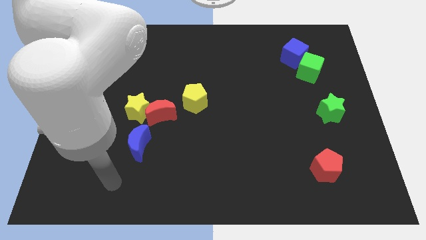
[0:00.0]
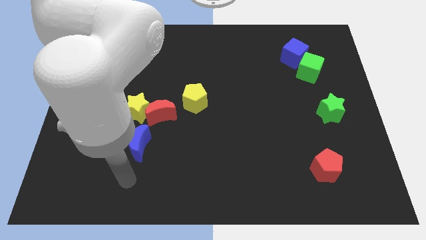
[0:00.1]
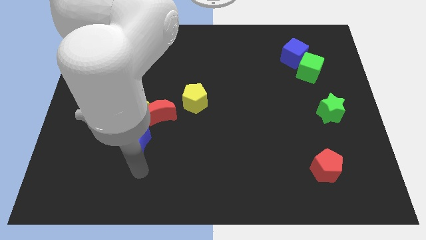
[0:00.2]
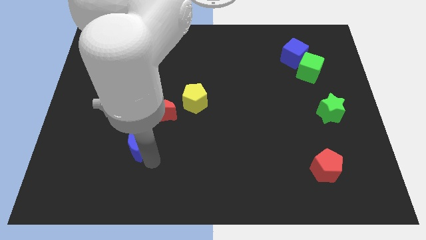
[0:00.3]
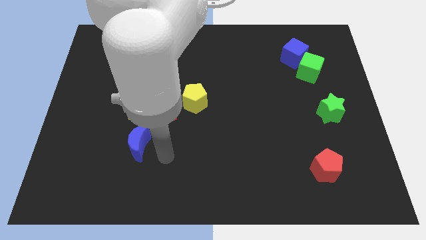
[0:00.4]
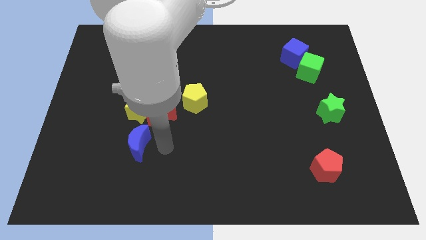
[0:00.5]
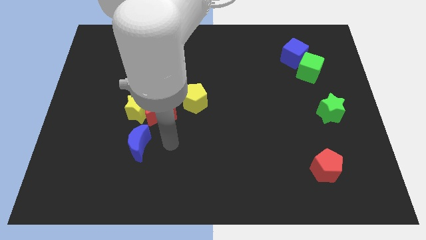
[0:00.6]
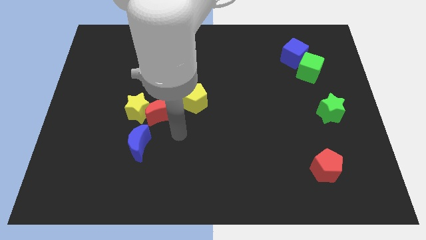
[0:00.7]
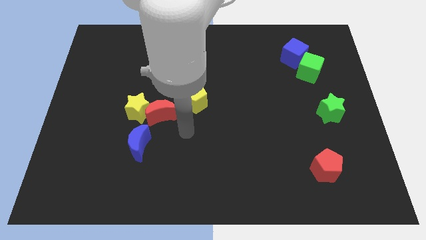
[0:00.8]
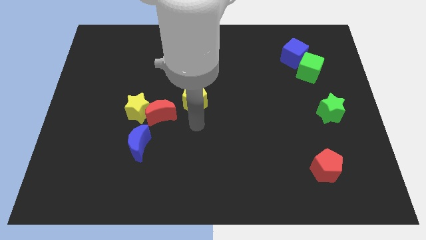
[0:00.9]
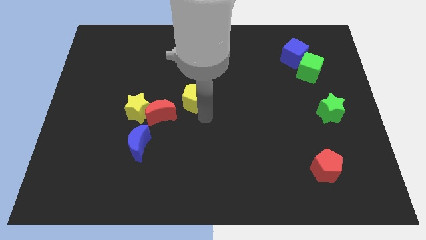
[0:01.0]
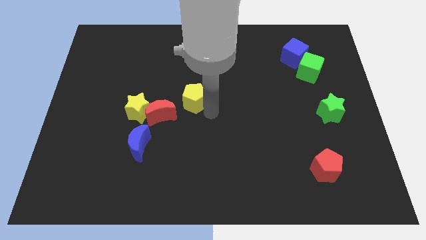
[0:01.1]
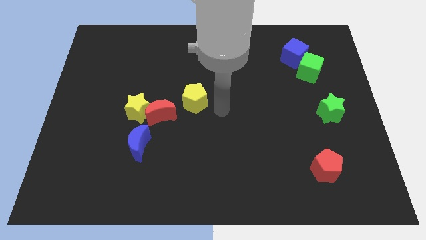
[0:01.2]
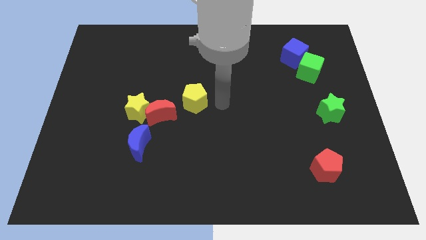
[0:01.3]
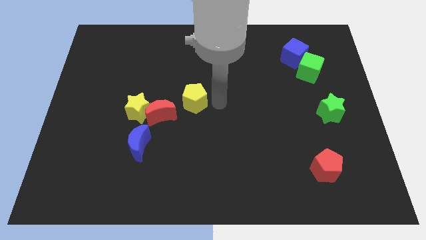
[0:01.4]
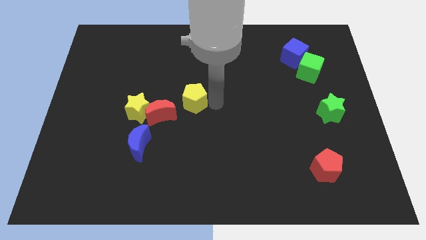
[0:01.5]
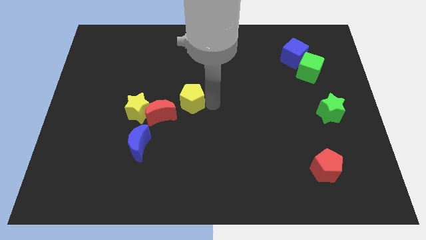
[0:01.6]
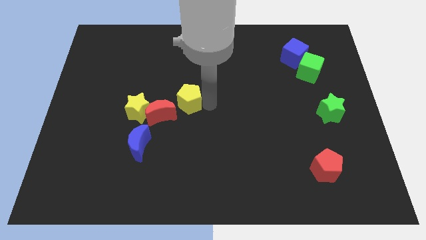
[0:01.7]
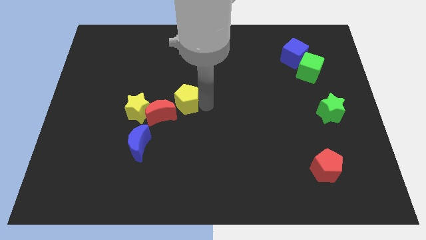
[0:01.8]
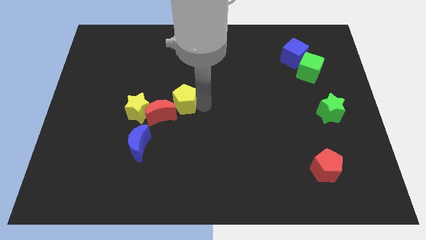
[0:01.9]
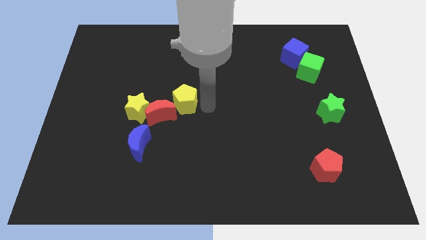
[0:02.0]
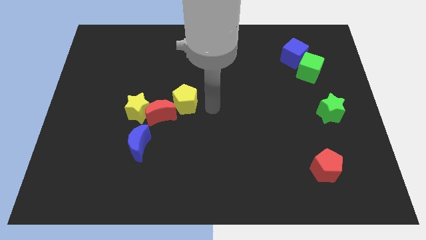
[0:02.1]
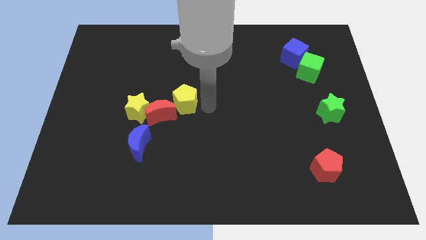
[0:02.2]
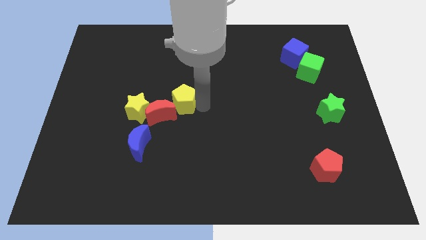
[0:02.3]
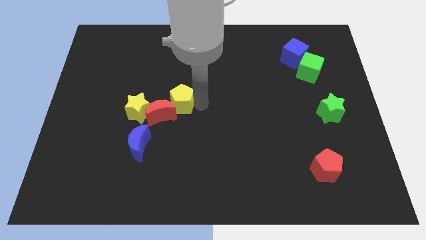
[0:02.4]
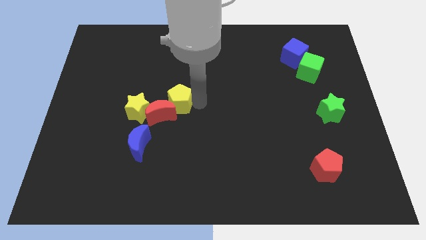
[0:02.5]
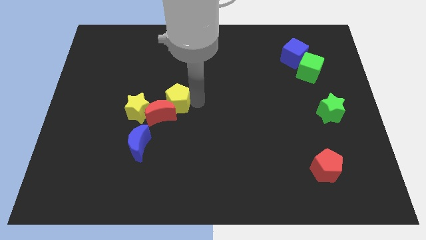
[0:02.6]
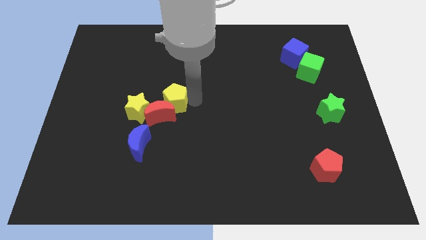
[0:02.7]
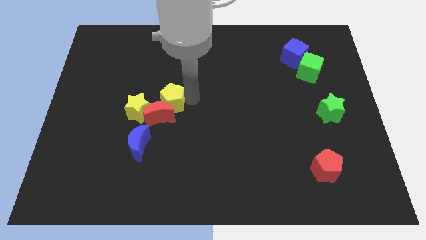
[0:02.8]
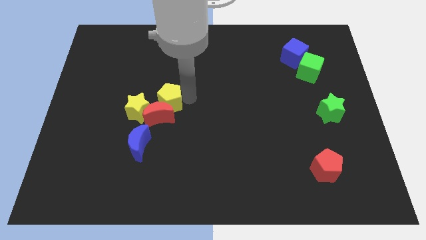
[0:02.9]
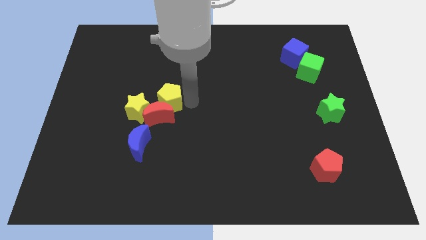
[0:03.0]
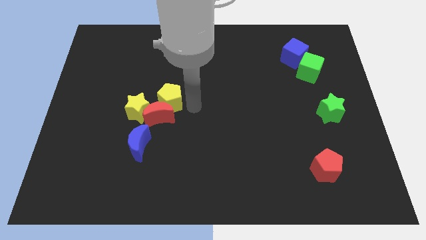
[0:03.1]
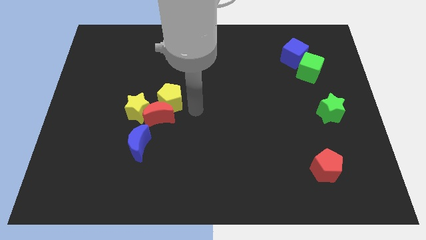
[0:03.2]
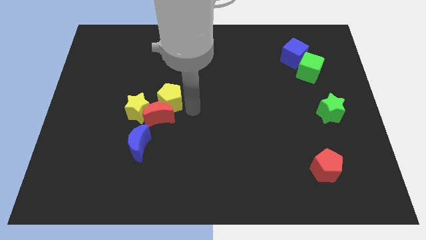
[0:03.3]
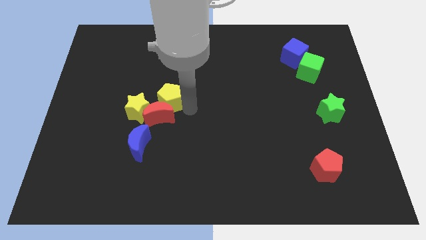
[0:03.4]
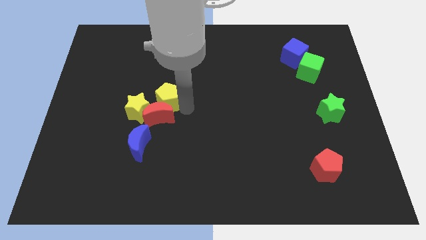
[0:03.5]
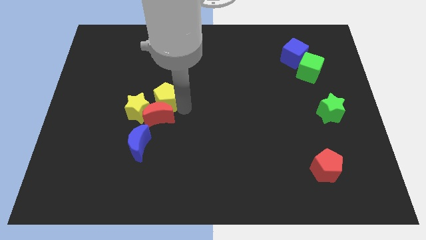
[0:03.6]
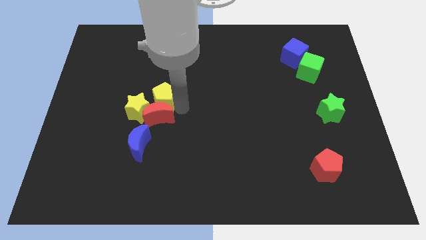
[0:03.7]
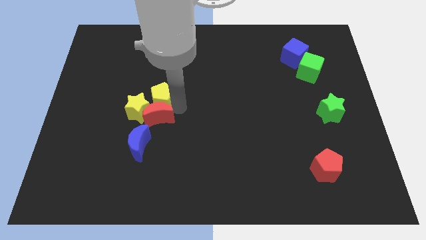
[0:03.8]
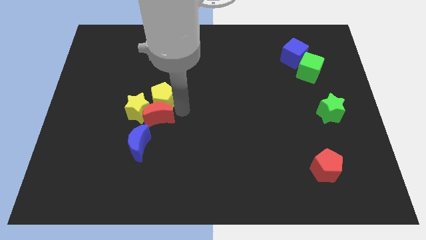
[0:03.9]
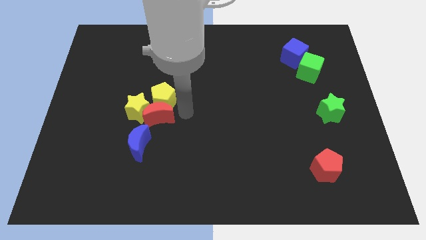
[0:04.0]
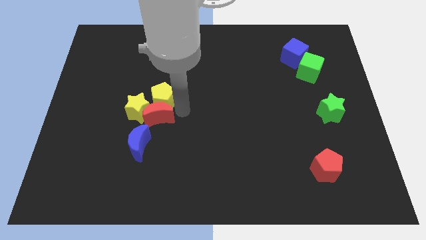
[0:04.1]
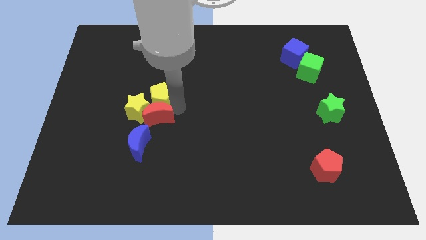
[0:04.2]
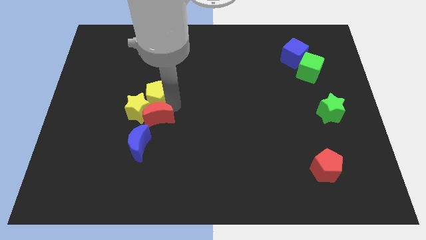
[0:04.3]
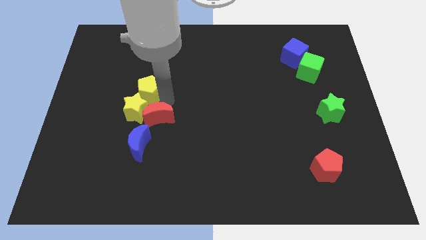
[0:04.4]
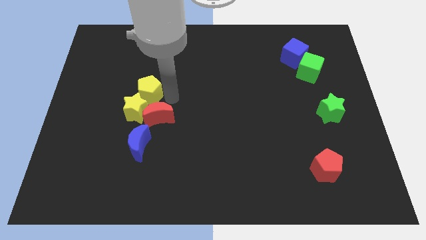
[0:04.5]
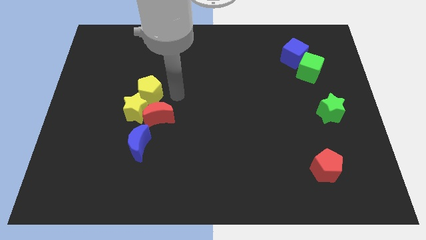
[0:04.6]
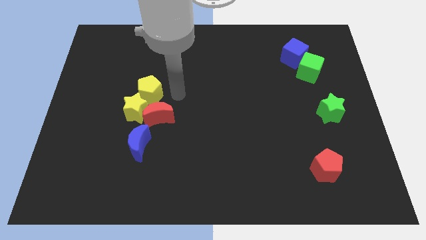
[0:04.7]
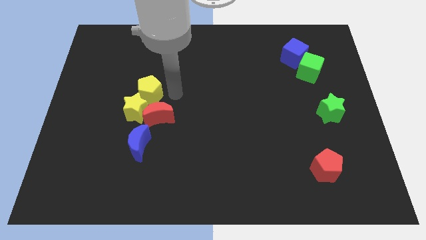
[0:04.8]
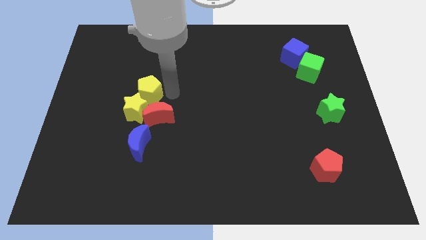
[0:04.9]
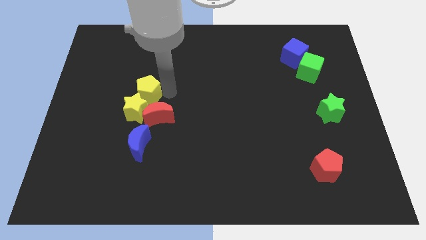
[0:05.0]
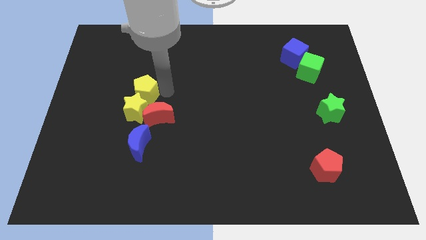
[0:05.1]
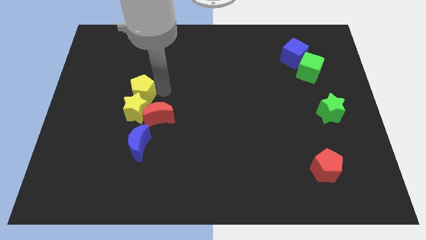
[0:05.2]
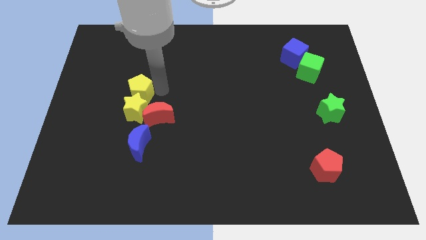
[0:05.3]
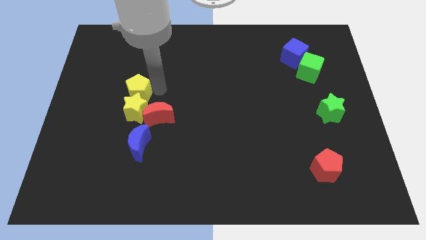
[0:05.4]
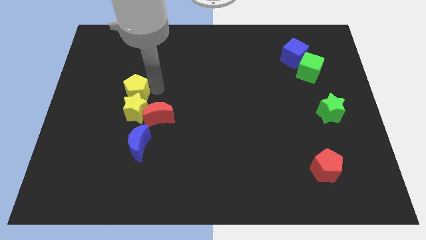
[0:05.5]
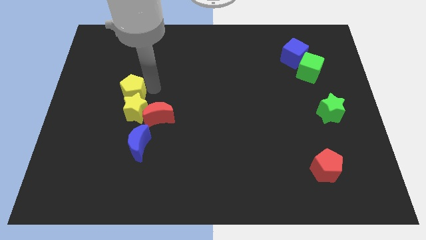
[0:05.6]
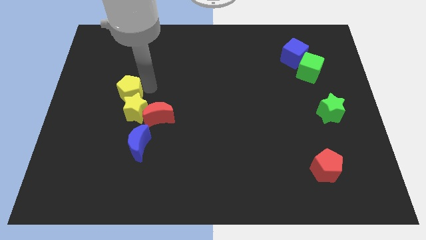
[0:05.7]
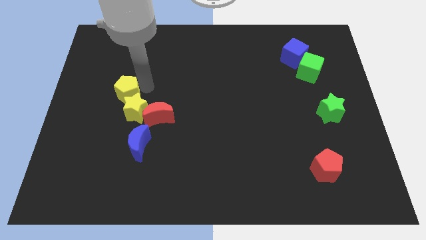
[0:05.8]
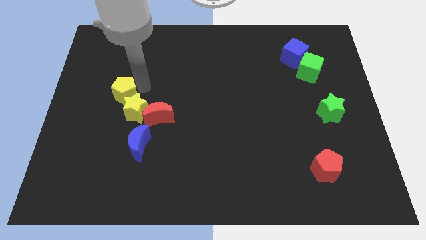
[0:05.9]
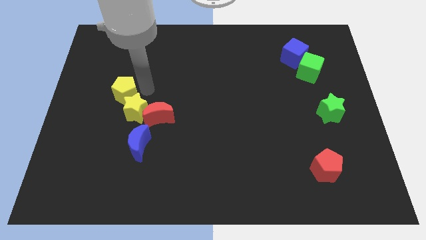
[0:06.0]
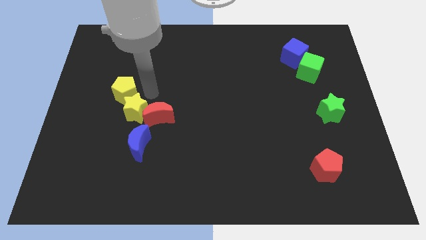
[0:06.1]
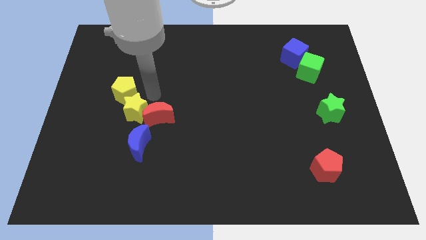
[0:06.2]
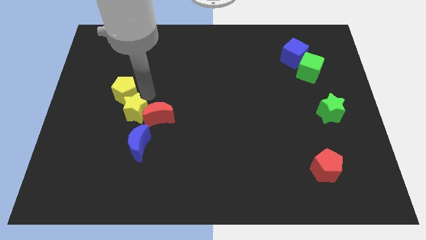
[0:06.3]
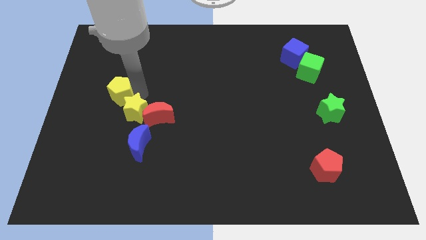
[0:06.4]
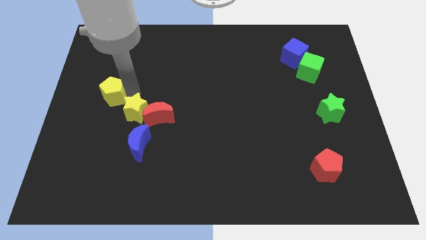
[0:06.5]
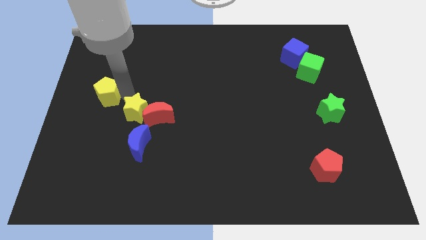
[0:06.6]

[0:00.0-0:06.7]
move the yellow pentagon to the left side
